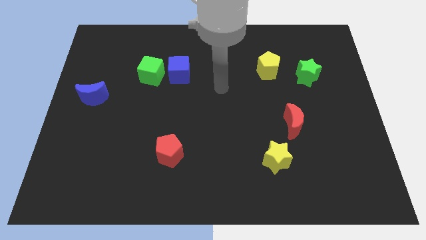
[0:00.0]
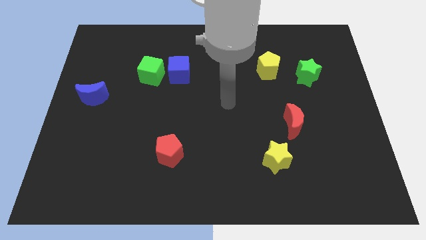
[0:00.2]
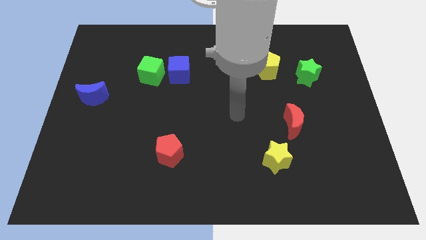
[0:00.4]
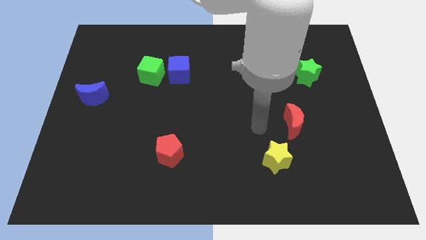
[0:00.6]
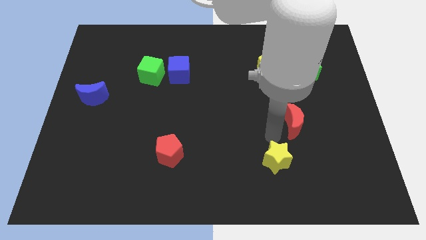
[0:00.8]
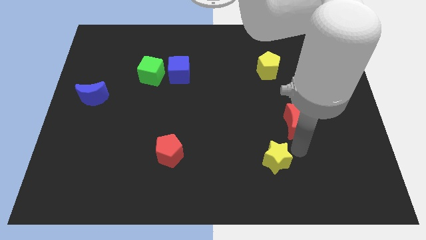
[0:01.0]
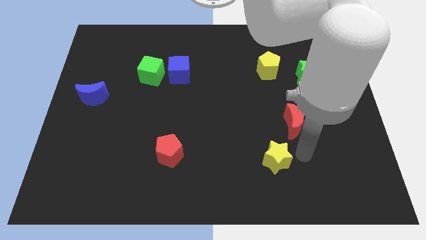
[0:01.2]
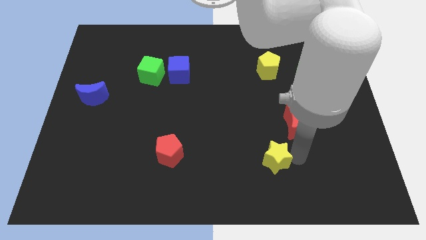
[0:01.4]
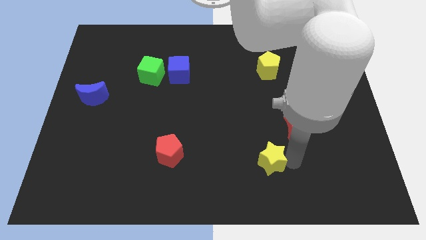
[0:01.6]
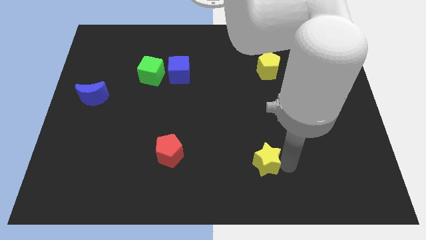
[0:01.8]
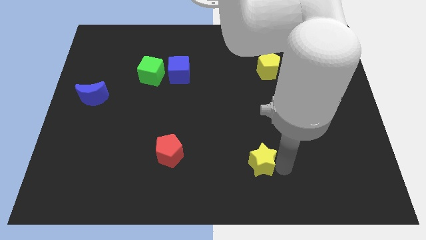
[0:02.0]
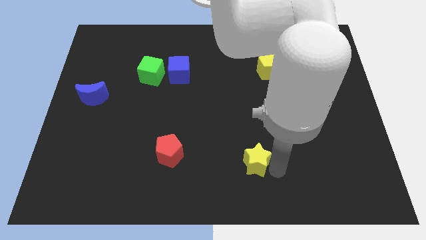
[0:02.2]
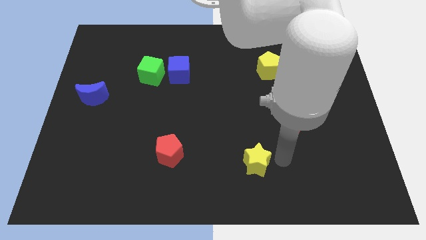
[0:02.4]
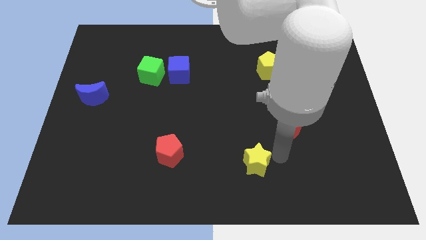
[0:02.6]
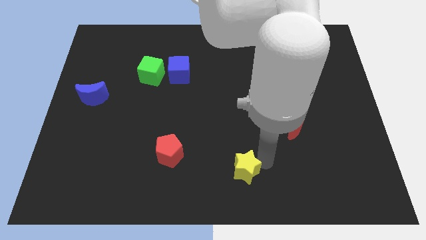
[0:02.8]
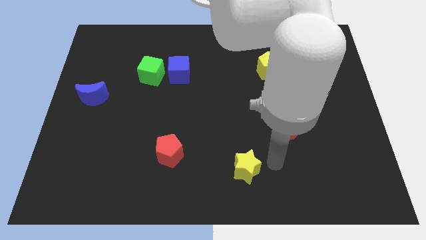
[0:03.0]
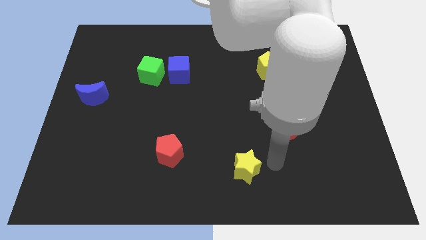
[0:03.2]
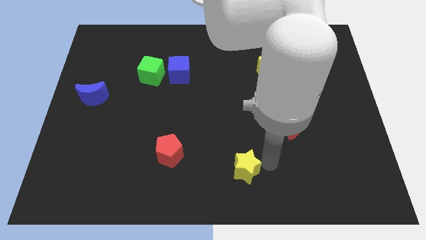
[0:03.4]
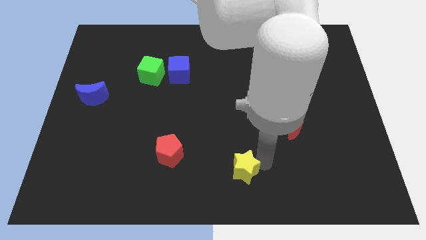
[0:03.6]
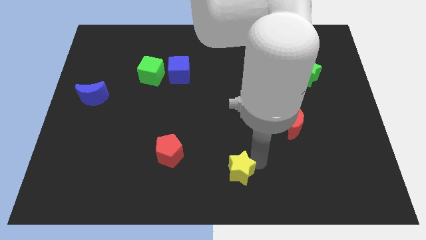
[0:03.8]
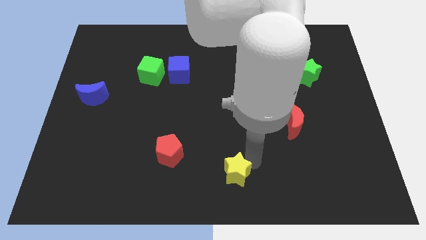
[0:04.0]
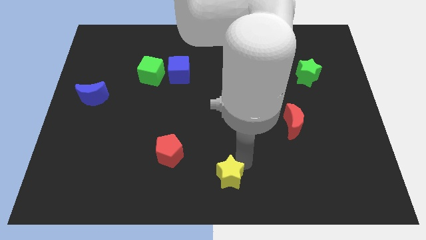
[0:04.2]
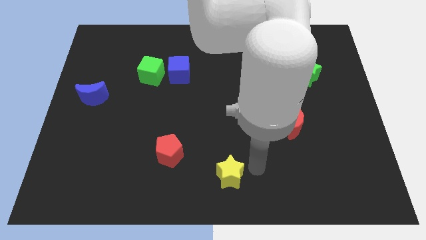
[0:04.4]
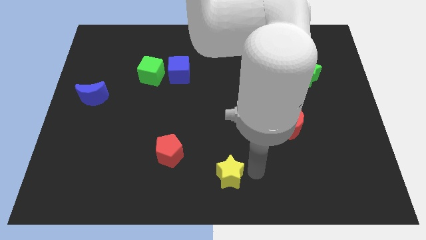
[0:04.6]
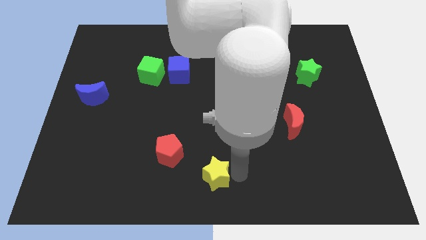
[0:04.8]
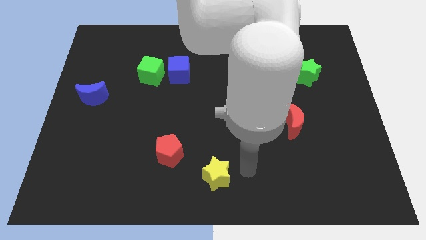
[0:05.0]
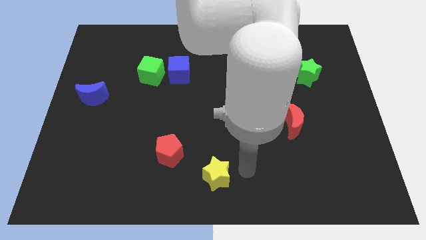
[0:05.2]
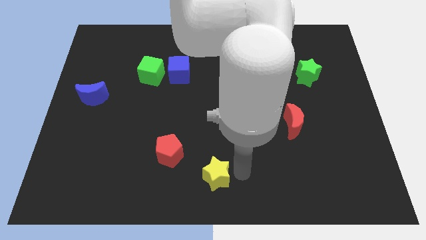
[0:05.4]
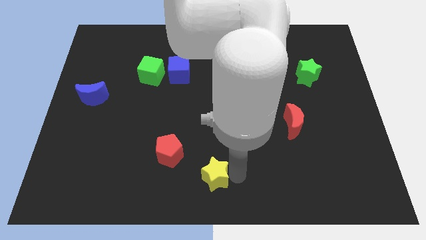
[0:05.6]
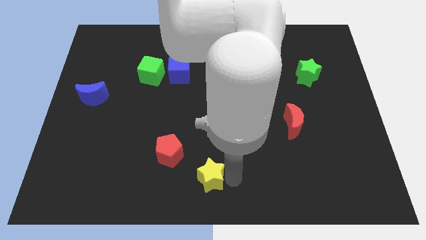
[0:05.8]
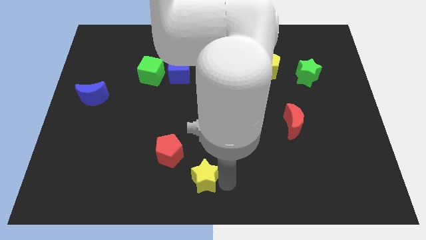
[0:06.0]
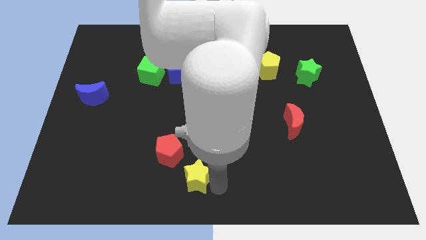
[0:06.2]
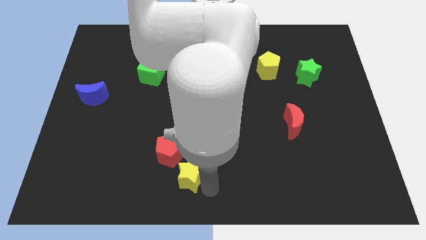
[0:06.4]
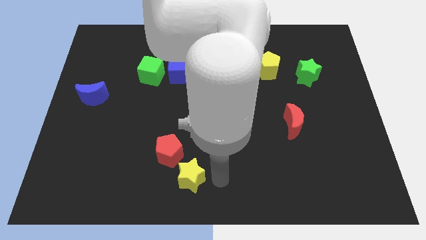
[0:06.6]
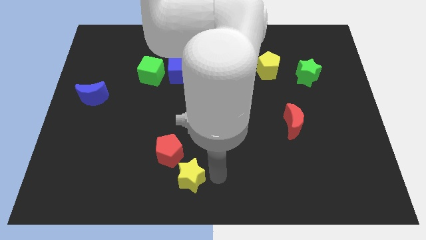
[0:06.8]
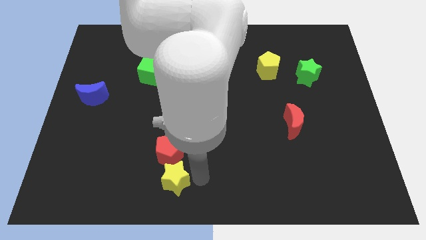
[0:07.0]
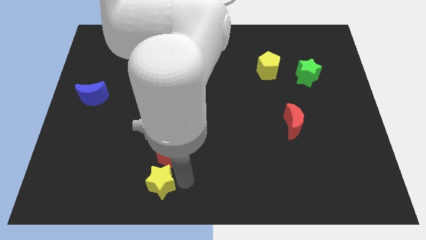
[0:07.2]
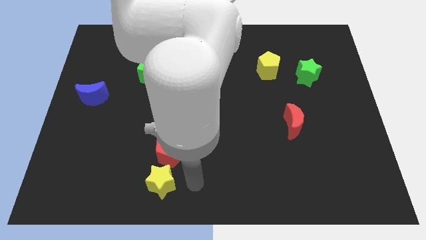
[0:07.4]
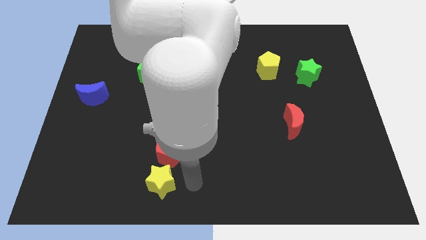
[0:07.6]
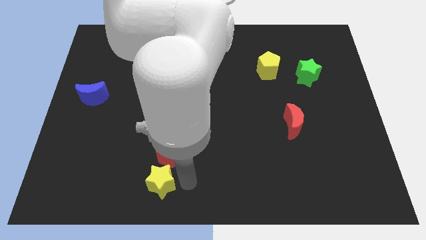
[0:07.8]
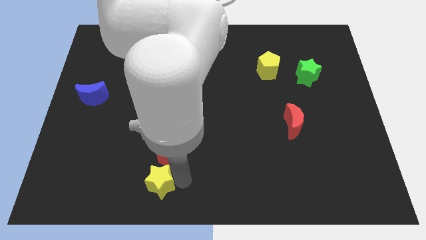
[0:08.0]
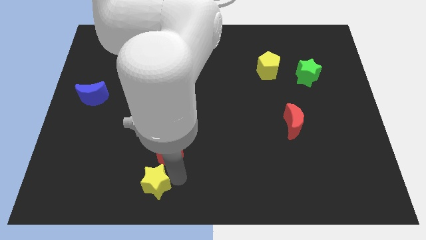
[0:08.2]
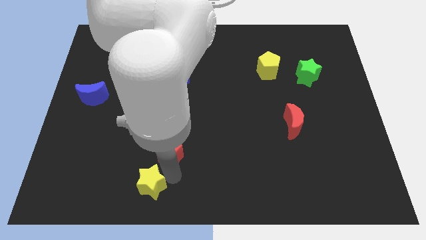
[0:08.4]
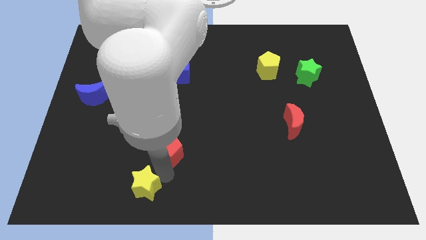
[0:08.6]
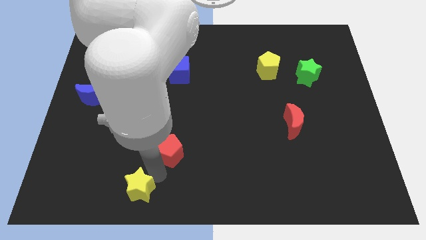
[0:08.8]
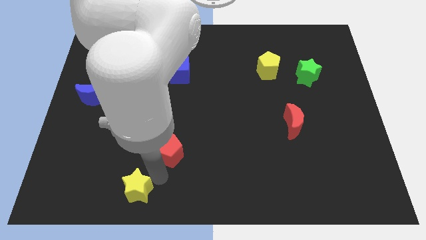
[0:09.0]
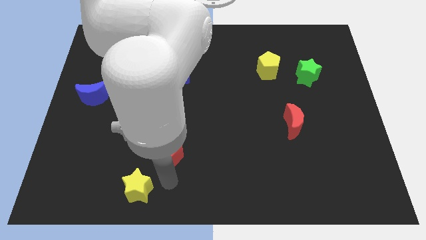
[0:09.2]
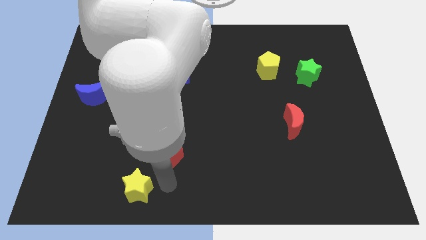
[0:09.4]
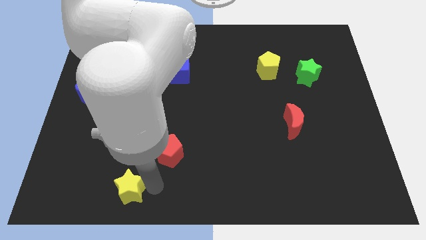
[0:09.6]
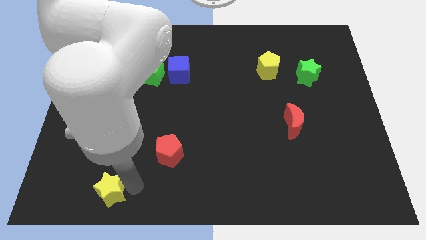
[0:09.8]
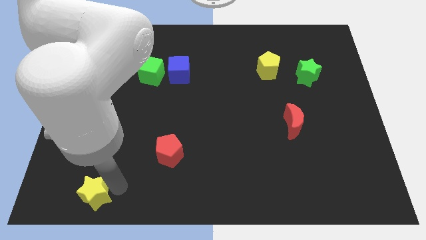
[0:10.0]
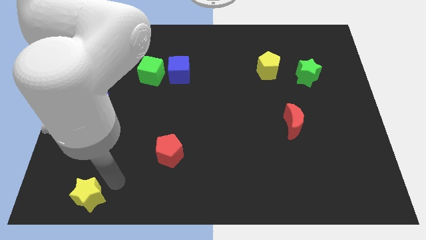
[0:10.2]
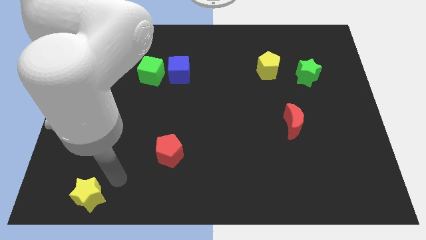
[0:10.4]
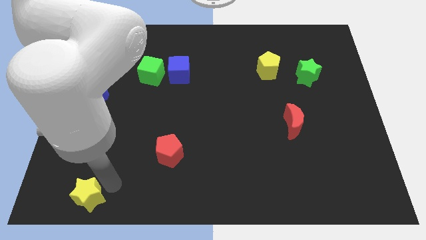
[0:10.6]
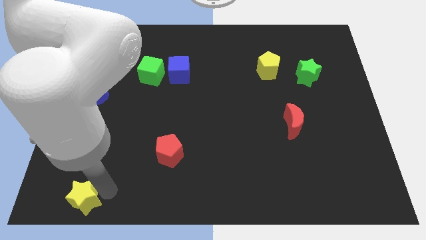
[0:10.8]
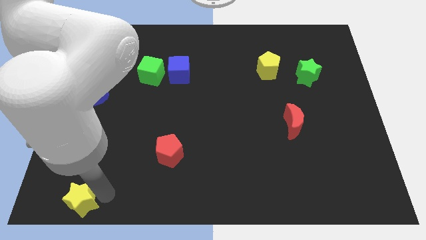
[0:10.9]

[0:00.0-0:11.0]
push the yellow star to the bottom left corner

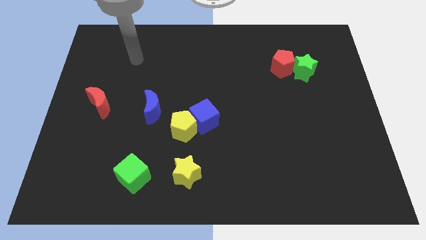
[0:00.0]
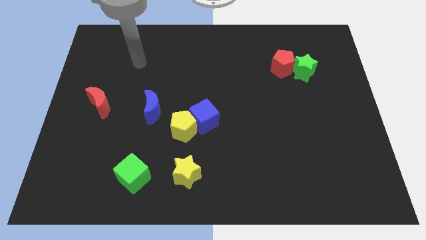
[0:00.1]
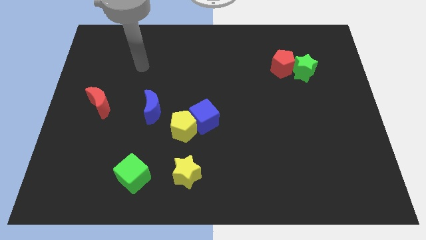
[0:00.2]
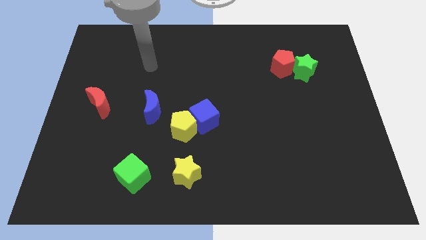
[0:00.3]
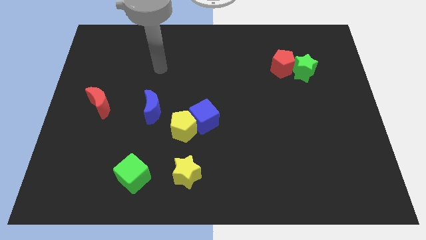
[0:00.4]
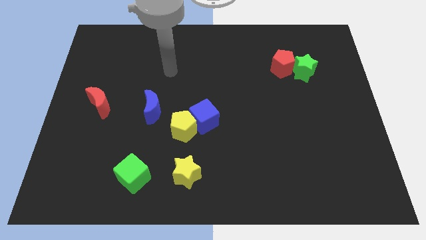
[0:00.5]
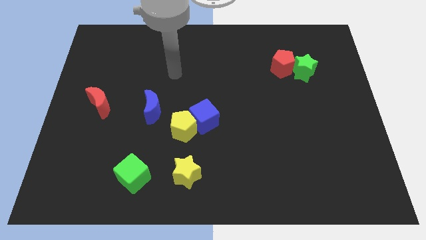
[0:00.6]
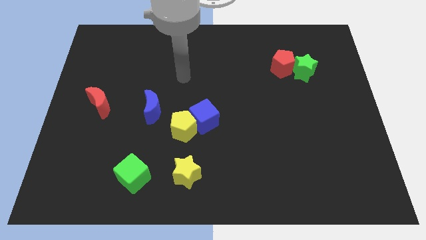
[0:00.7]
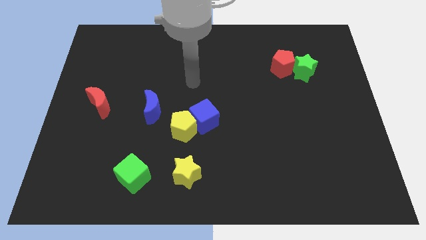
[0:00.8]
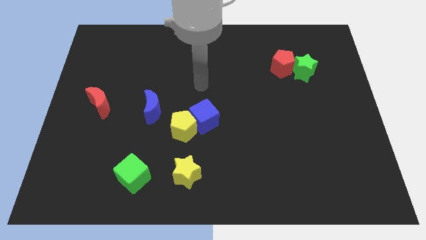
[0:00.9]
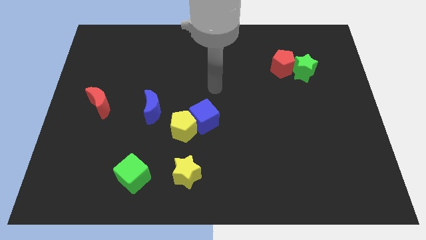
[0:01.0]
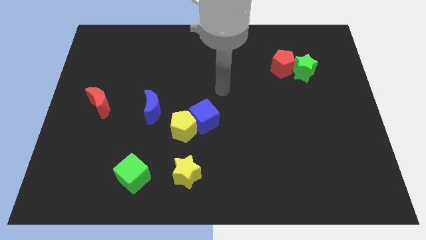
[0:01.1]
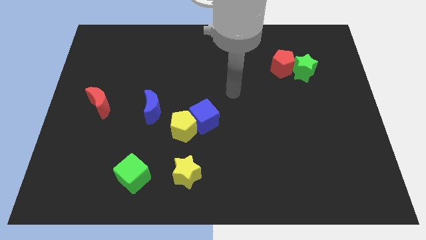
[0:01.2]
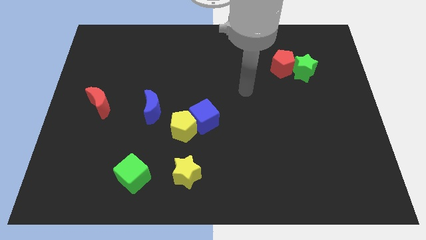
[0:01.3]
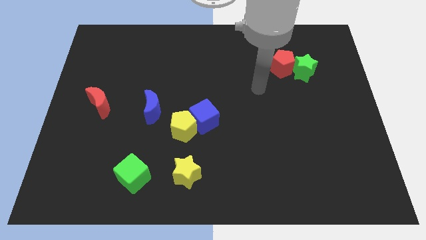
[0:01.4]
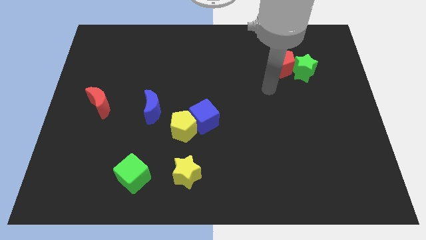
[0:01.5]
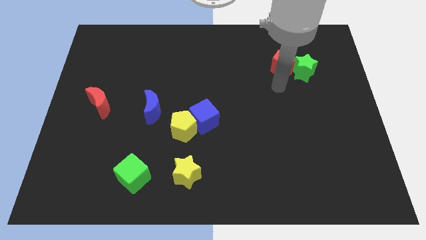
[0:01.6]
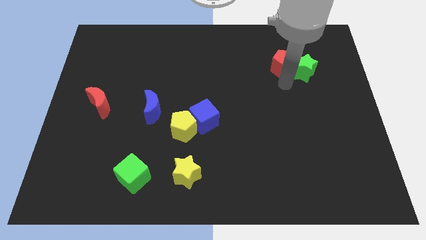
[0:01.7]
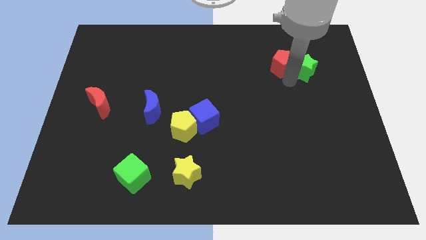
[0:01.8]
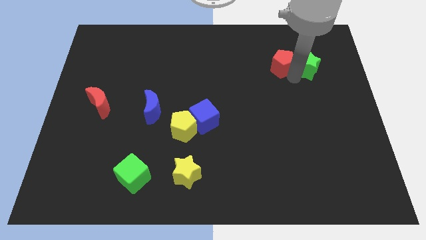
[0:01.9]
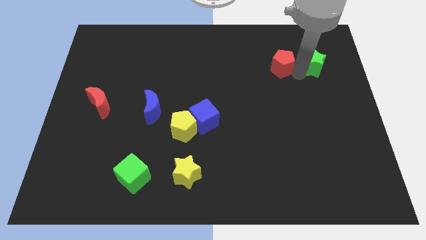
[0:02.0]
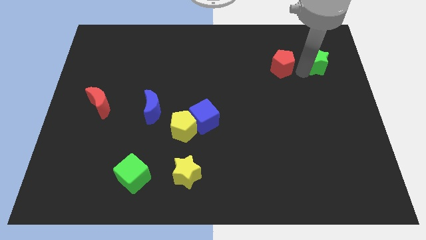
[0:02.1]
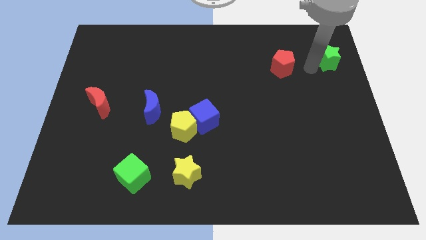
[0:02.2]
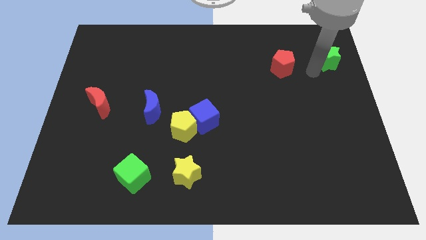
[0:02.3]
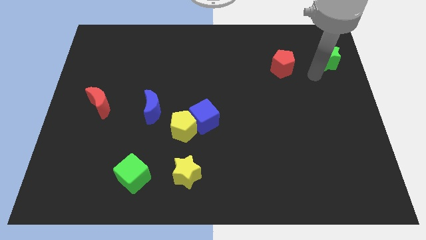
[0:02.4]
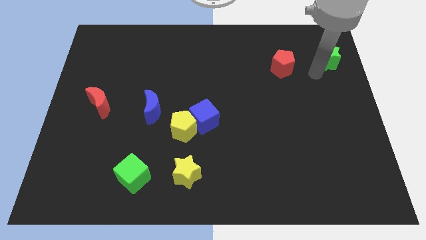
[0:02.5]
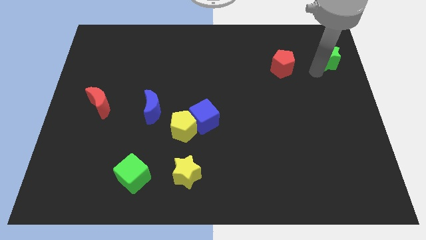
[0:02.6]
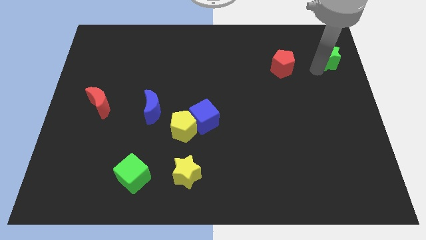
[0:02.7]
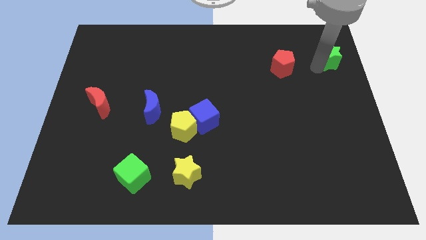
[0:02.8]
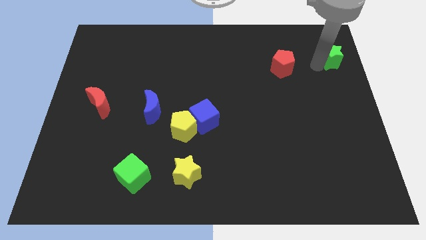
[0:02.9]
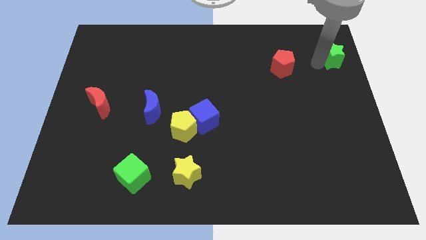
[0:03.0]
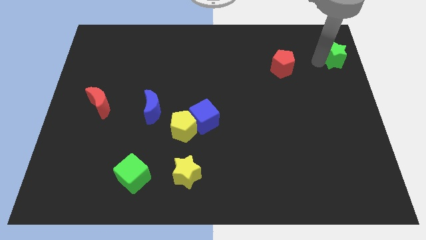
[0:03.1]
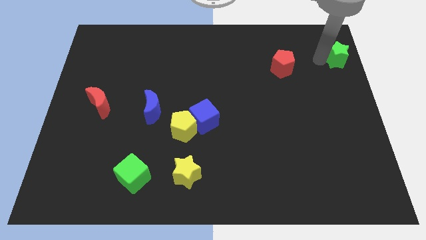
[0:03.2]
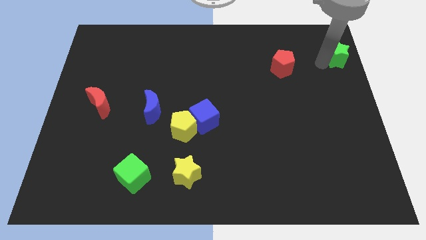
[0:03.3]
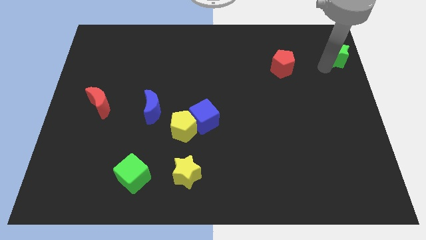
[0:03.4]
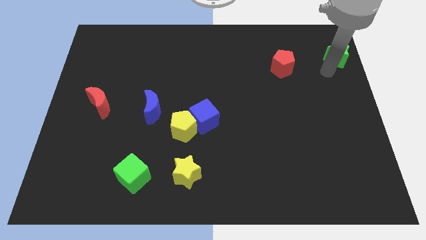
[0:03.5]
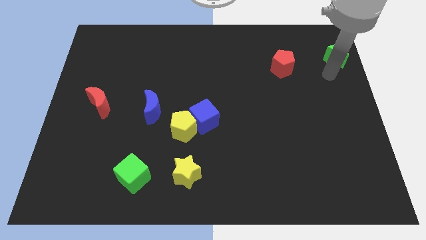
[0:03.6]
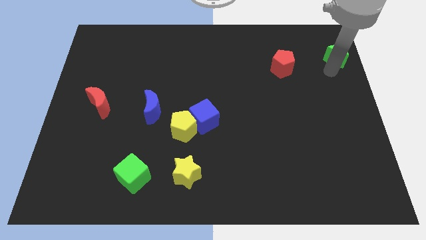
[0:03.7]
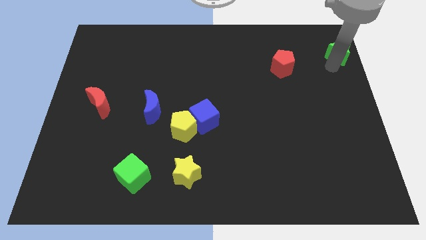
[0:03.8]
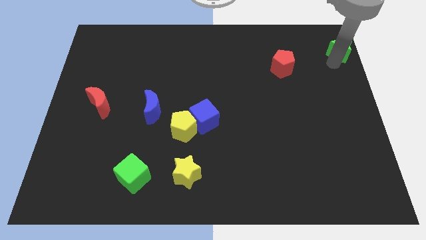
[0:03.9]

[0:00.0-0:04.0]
put the green star to the top right corner
